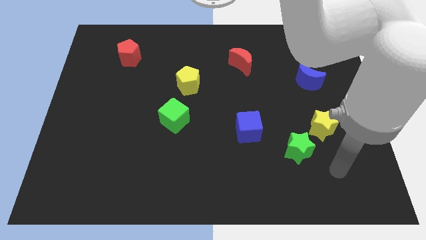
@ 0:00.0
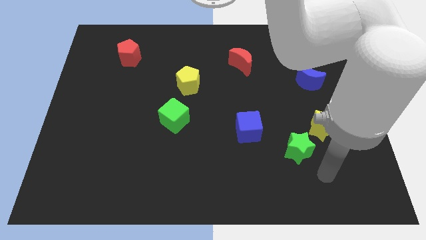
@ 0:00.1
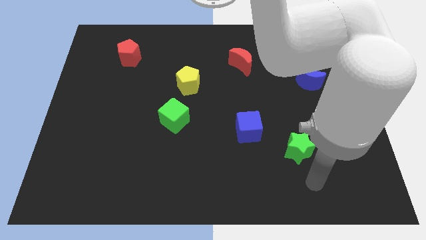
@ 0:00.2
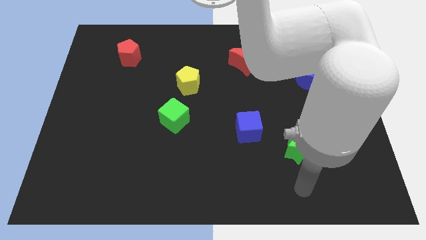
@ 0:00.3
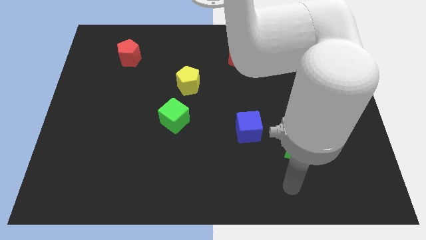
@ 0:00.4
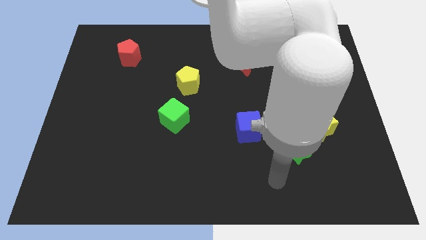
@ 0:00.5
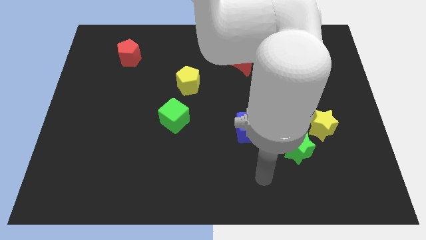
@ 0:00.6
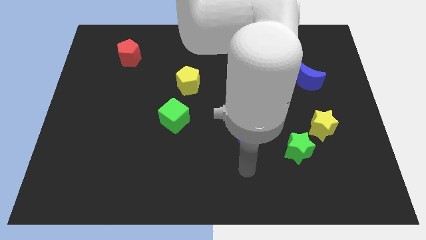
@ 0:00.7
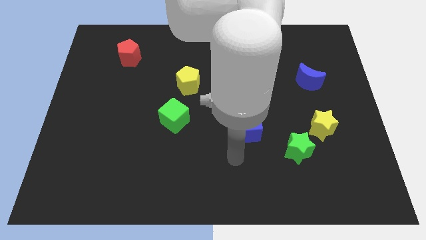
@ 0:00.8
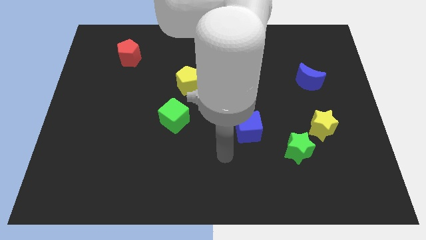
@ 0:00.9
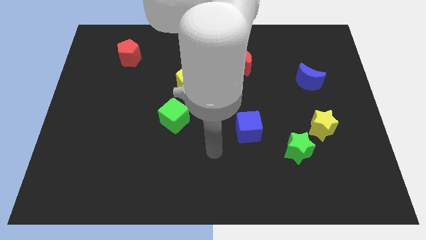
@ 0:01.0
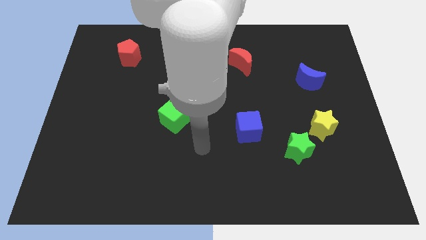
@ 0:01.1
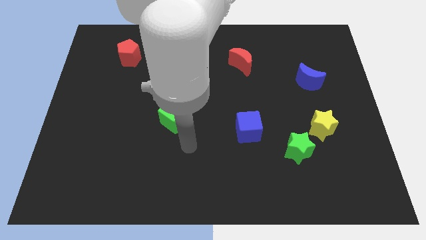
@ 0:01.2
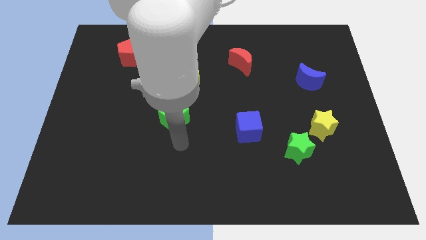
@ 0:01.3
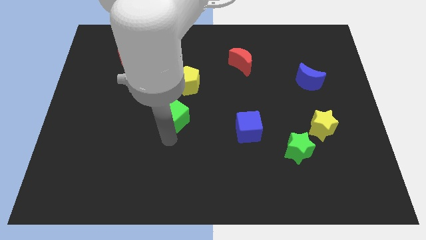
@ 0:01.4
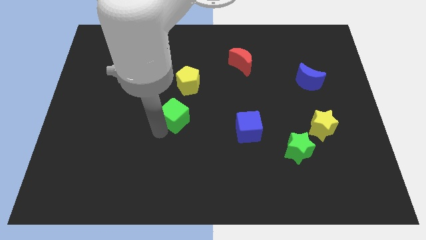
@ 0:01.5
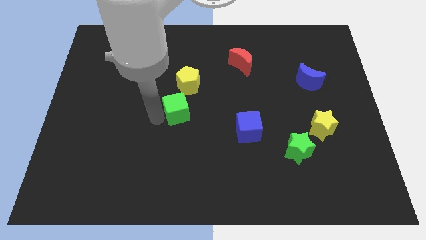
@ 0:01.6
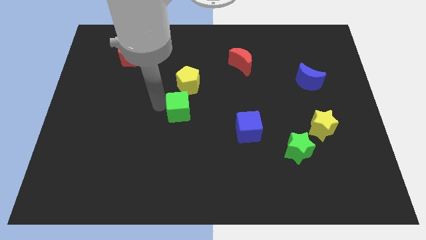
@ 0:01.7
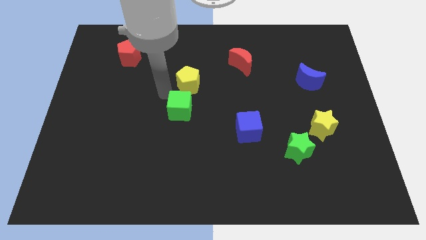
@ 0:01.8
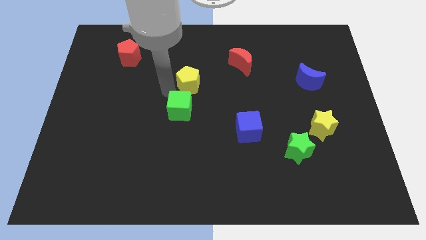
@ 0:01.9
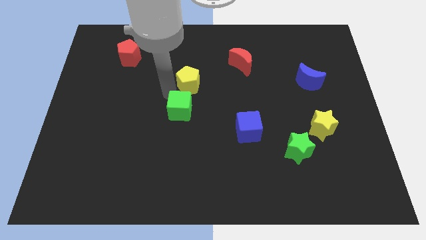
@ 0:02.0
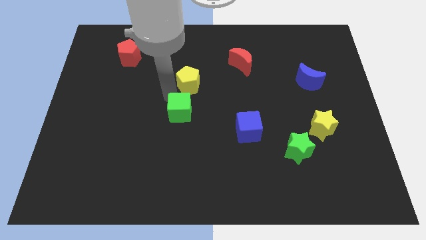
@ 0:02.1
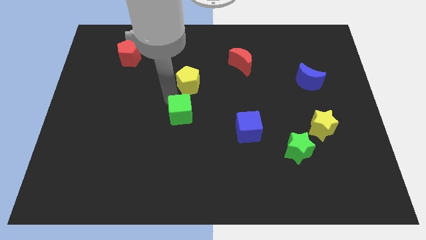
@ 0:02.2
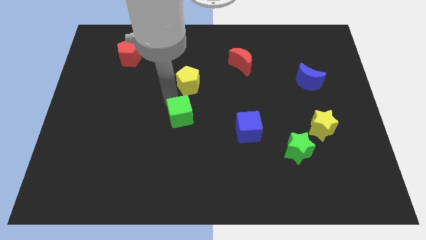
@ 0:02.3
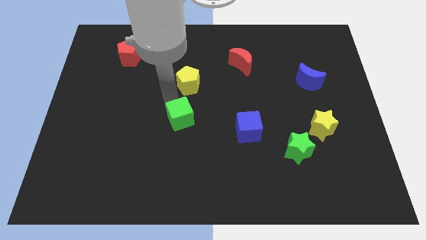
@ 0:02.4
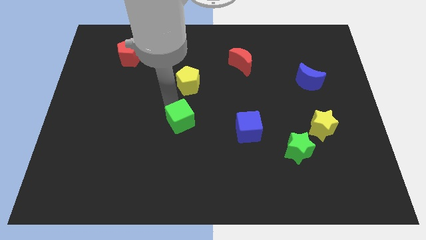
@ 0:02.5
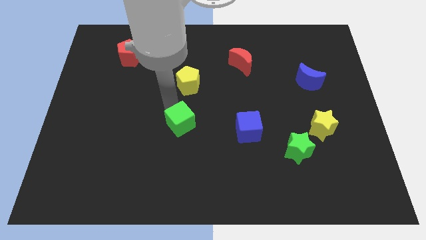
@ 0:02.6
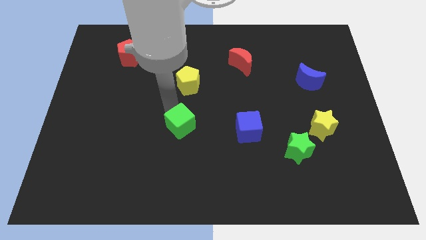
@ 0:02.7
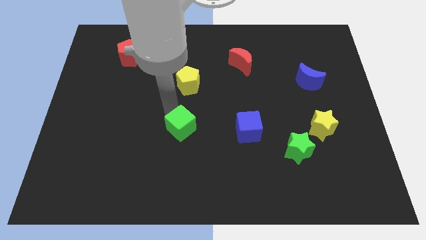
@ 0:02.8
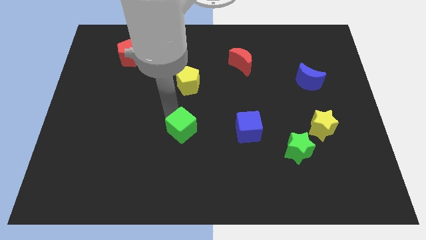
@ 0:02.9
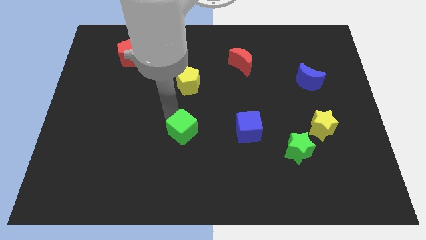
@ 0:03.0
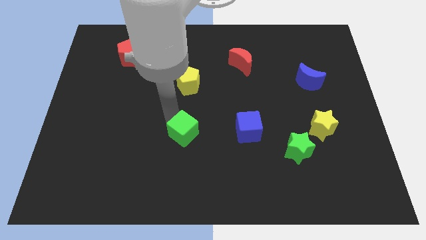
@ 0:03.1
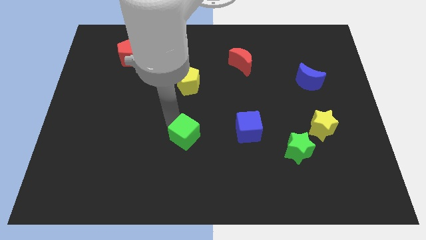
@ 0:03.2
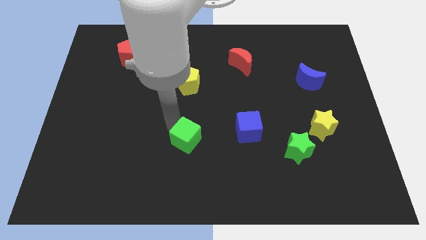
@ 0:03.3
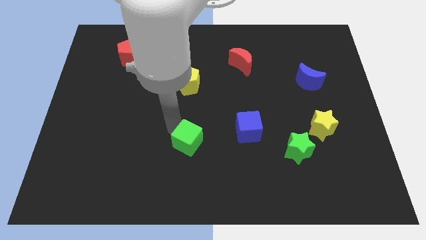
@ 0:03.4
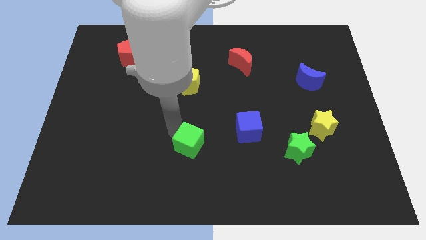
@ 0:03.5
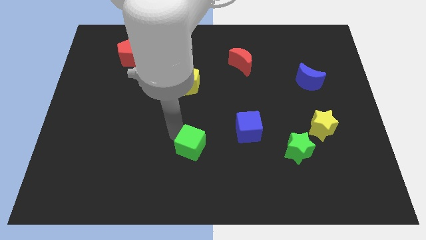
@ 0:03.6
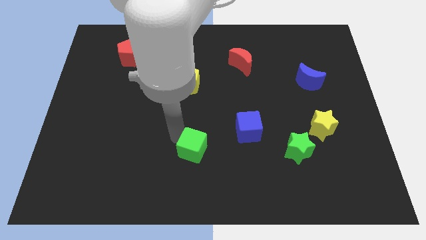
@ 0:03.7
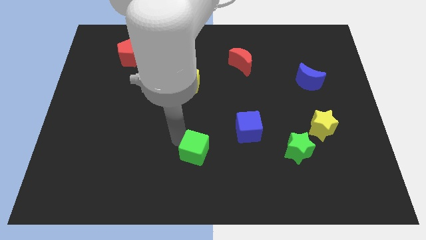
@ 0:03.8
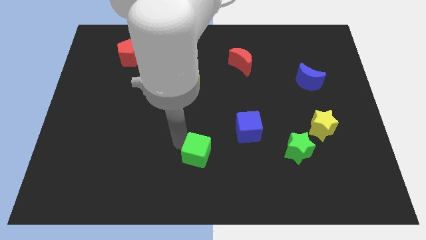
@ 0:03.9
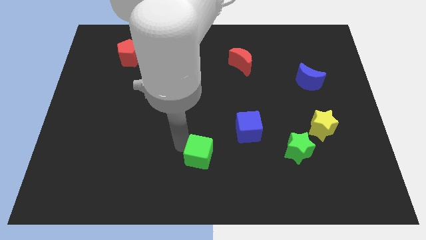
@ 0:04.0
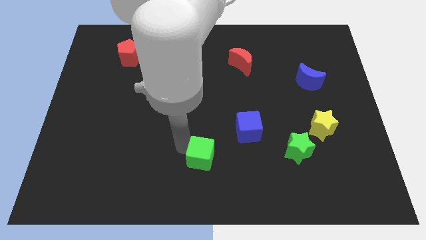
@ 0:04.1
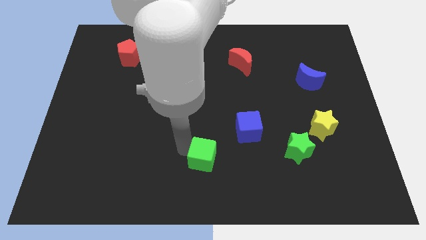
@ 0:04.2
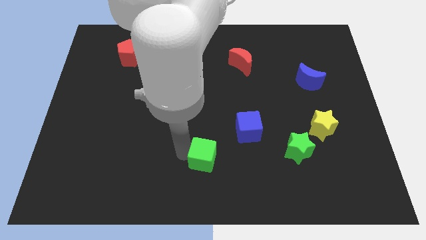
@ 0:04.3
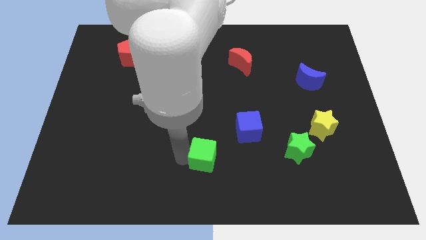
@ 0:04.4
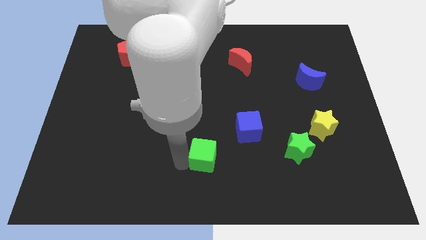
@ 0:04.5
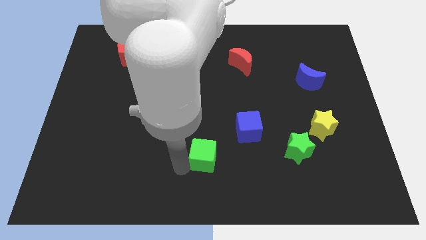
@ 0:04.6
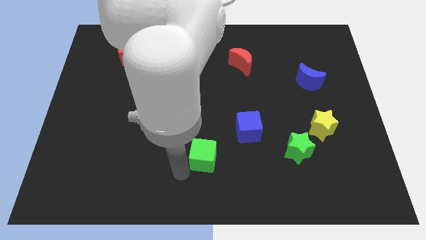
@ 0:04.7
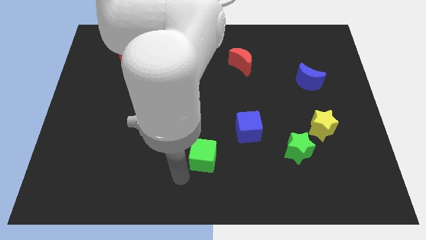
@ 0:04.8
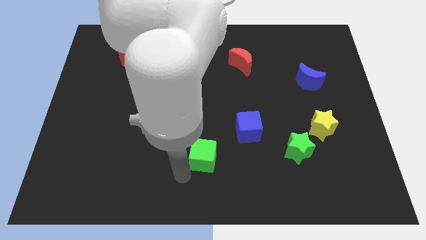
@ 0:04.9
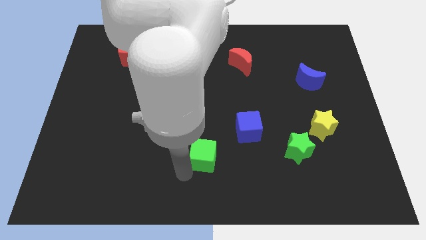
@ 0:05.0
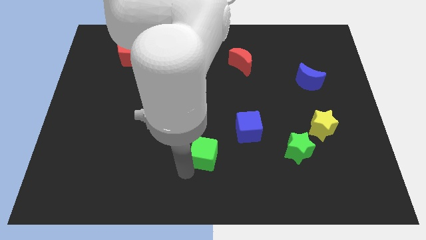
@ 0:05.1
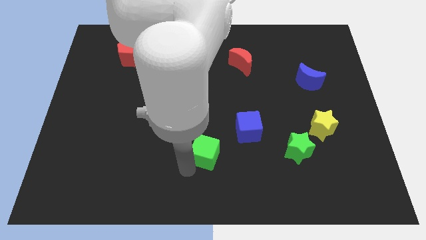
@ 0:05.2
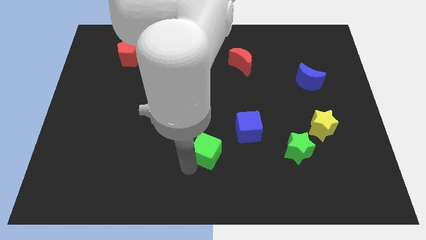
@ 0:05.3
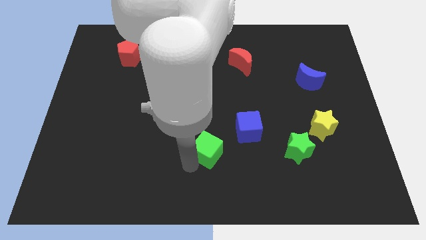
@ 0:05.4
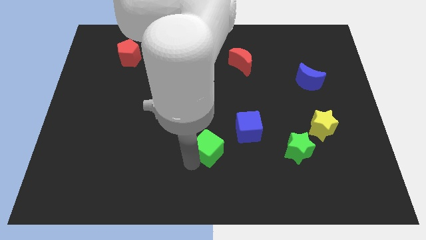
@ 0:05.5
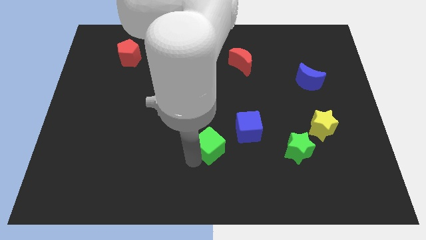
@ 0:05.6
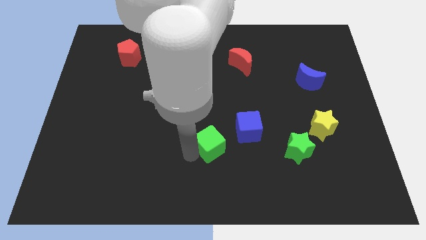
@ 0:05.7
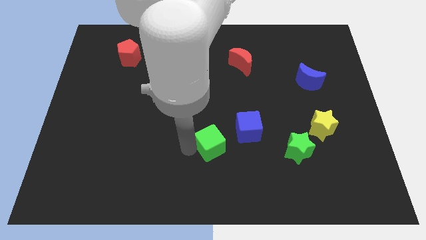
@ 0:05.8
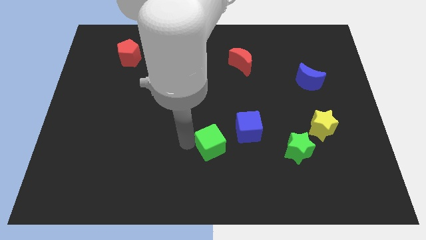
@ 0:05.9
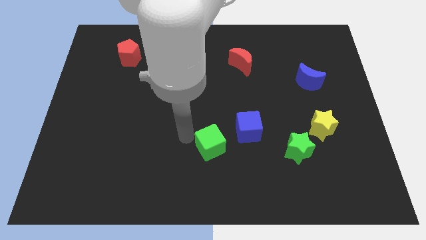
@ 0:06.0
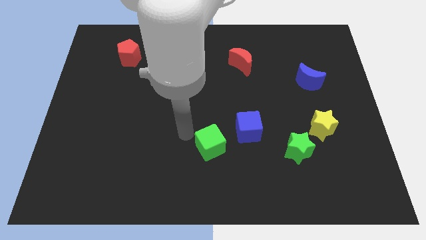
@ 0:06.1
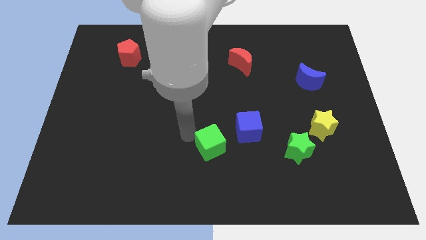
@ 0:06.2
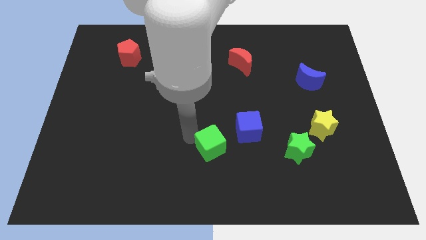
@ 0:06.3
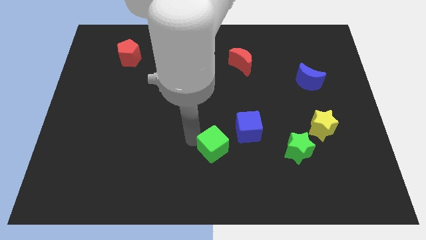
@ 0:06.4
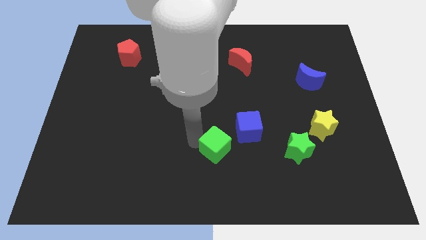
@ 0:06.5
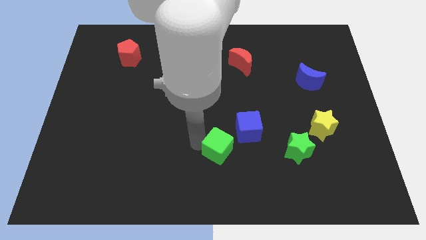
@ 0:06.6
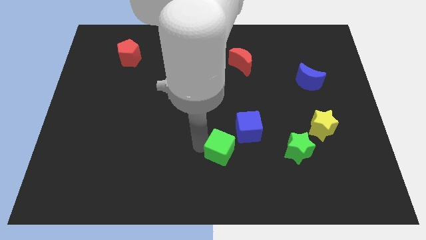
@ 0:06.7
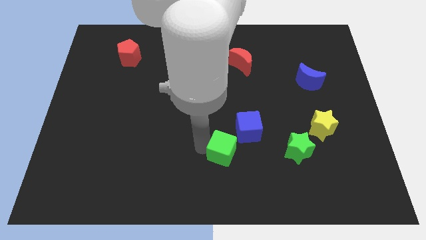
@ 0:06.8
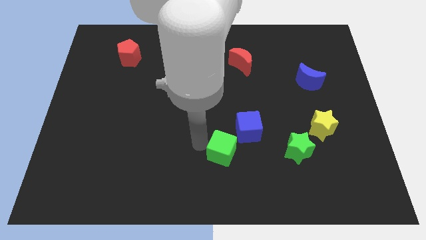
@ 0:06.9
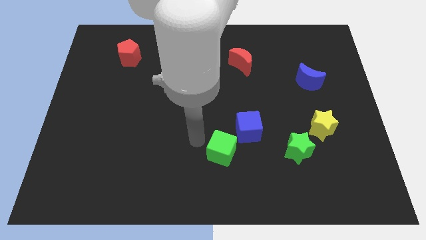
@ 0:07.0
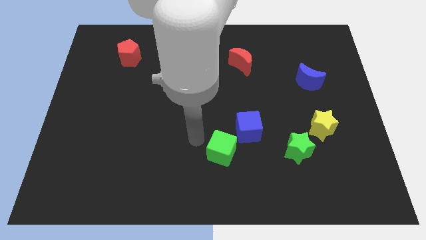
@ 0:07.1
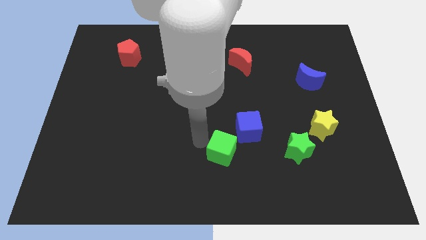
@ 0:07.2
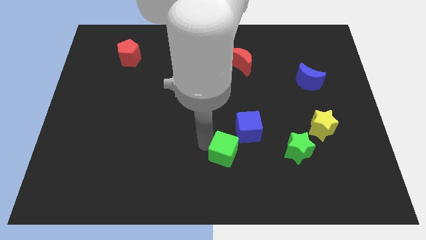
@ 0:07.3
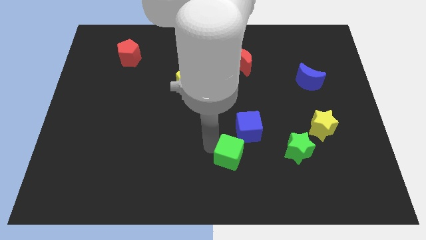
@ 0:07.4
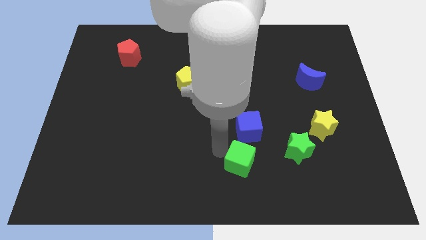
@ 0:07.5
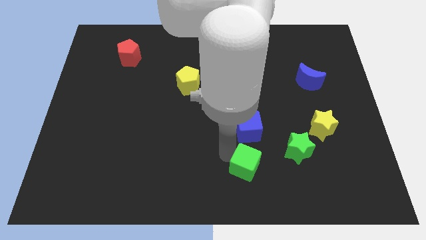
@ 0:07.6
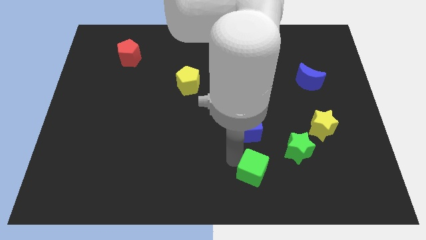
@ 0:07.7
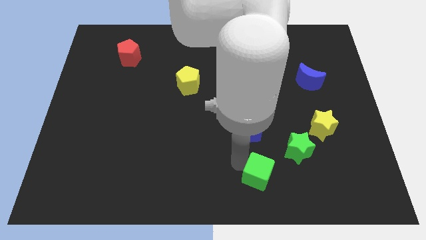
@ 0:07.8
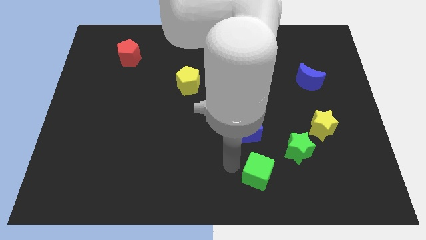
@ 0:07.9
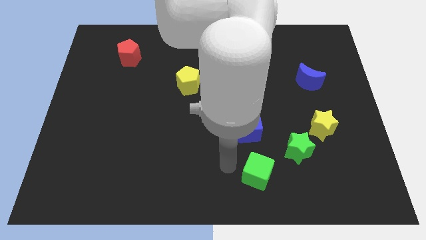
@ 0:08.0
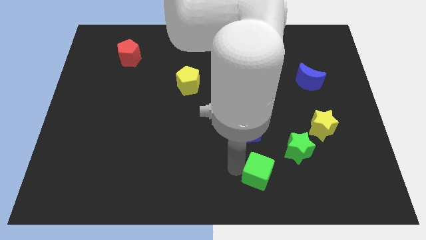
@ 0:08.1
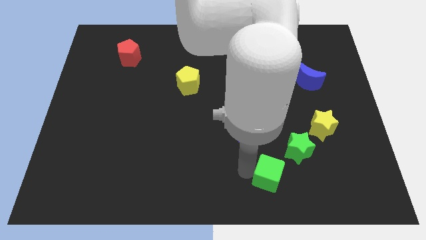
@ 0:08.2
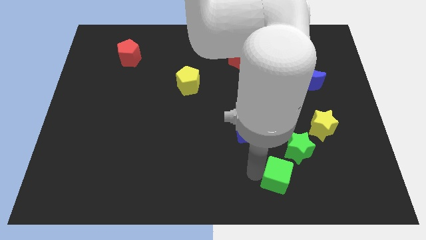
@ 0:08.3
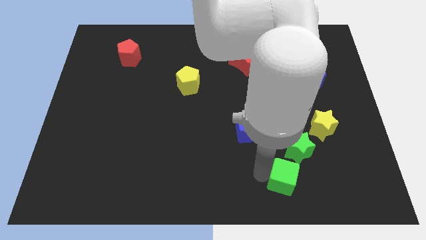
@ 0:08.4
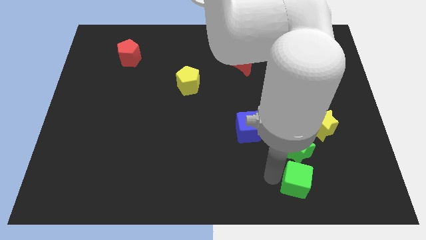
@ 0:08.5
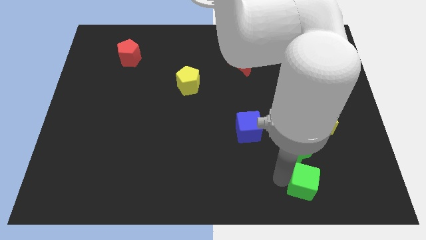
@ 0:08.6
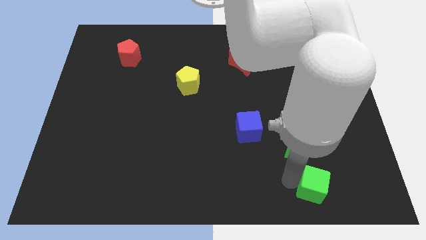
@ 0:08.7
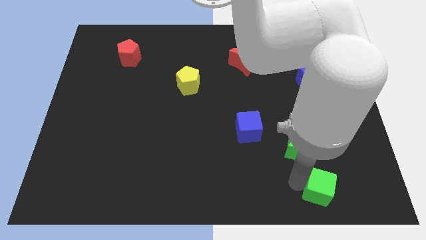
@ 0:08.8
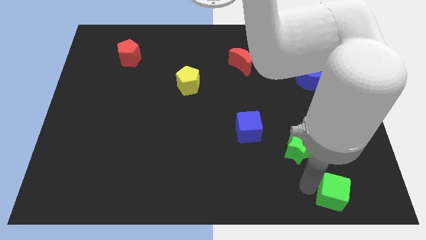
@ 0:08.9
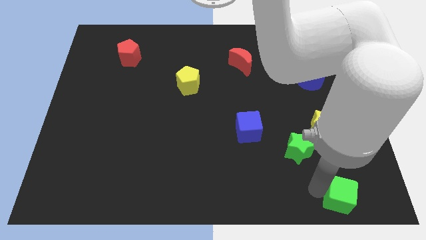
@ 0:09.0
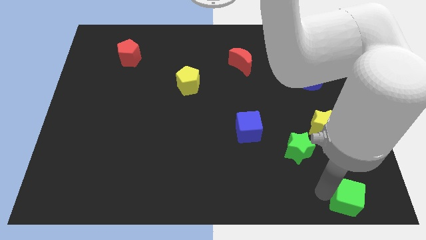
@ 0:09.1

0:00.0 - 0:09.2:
put the green cube to the bottom right
